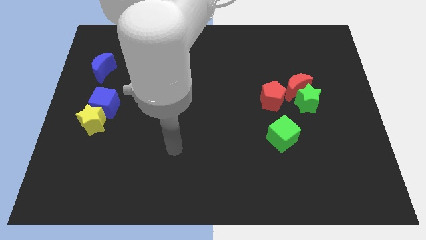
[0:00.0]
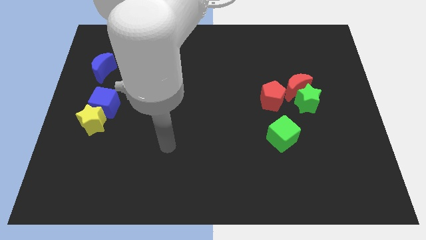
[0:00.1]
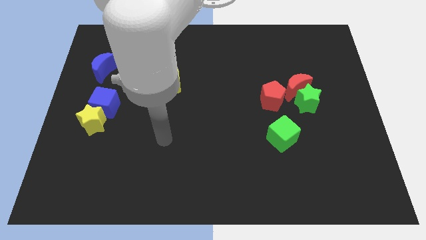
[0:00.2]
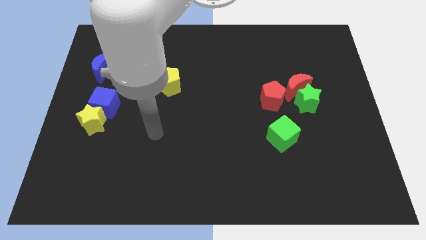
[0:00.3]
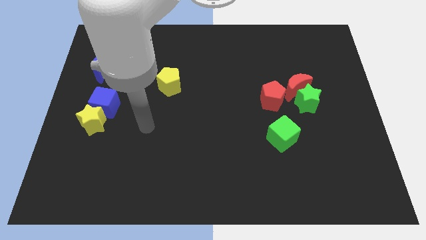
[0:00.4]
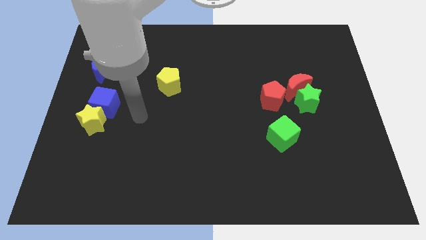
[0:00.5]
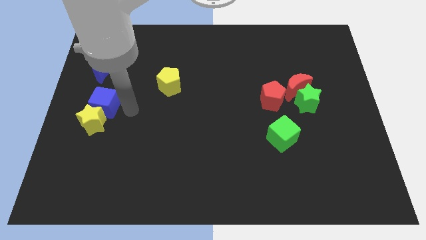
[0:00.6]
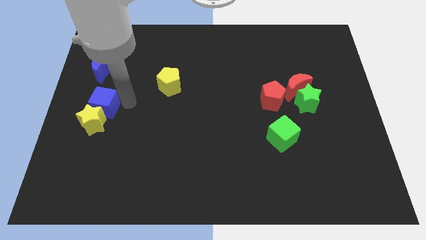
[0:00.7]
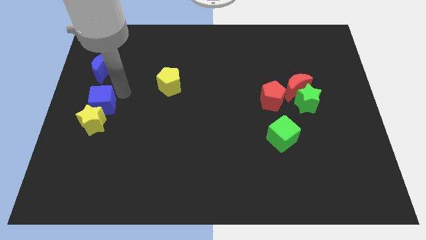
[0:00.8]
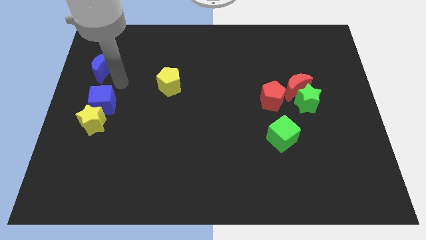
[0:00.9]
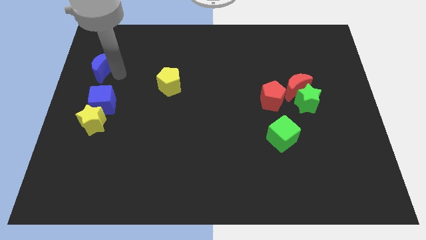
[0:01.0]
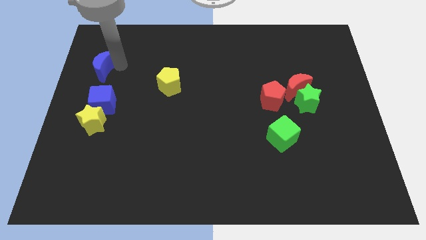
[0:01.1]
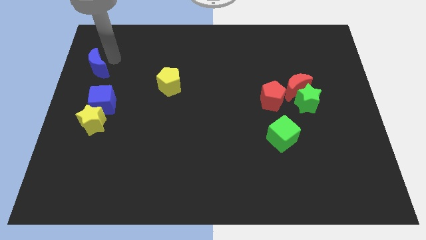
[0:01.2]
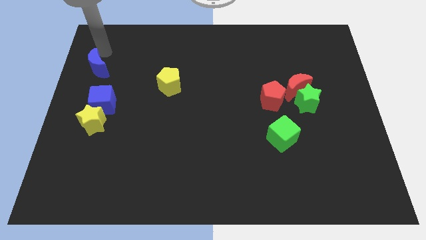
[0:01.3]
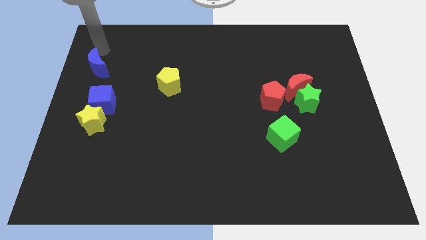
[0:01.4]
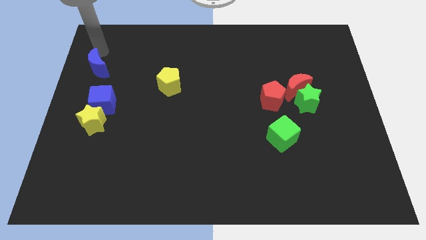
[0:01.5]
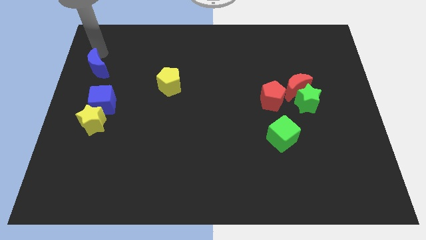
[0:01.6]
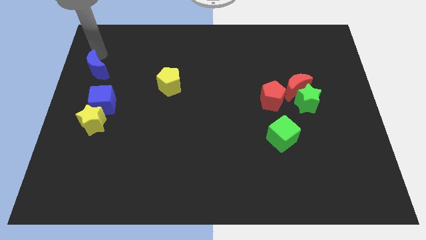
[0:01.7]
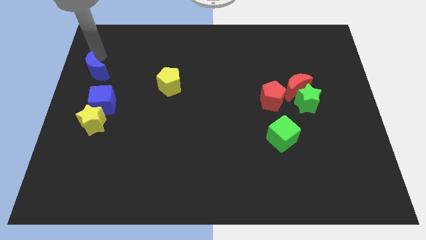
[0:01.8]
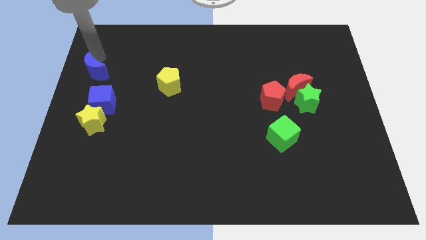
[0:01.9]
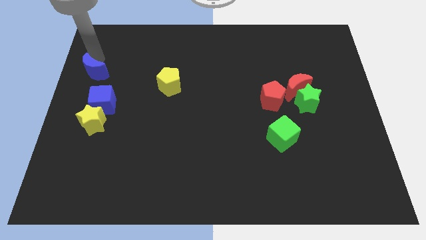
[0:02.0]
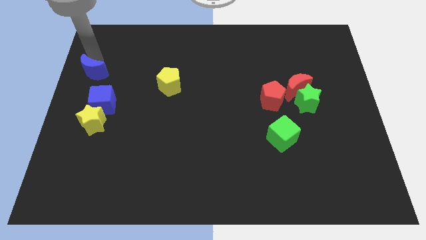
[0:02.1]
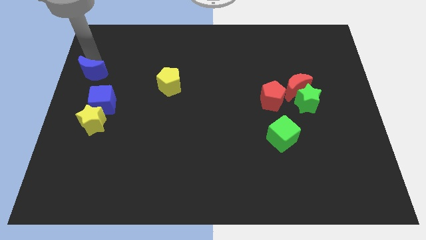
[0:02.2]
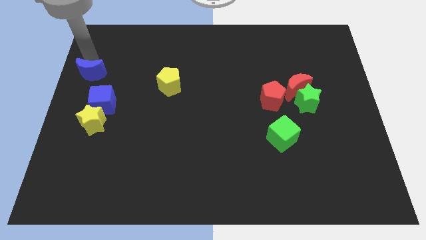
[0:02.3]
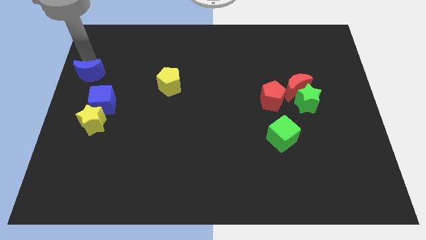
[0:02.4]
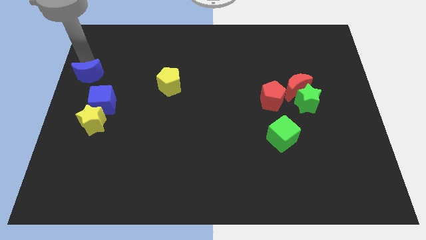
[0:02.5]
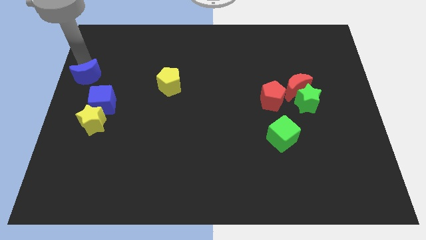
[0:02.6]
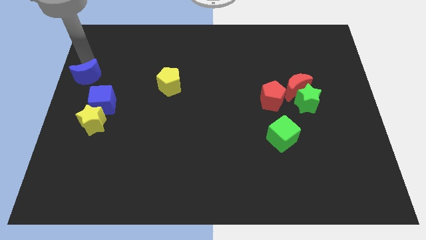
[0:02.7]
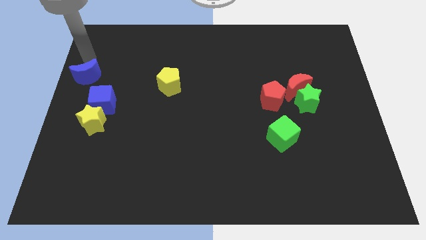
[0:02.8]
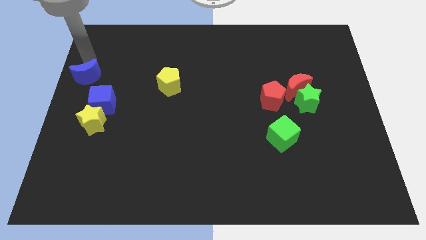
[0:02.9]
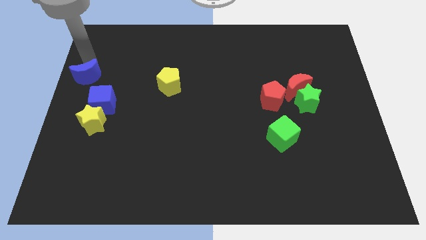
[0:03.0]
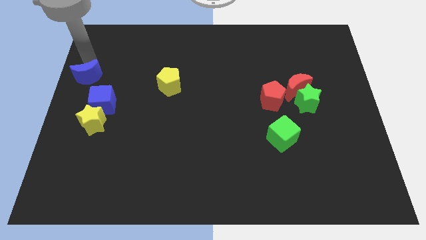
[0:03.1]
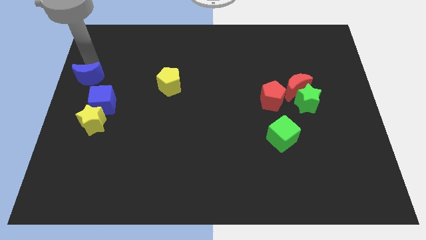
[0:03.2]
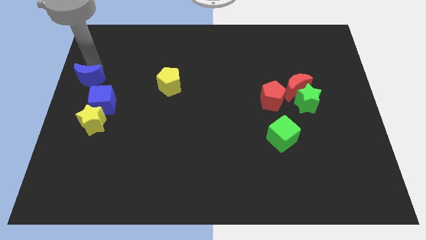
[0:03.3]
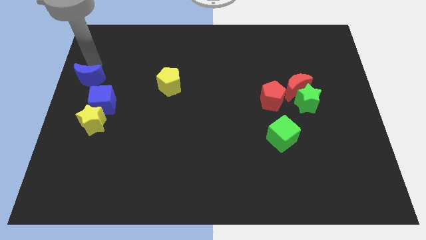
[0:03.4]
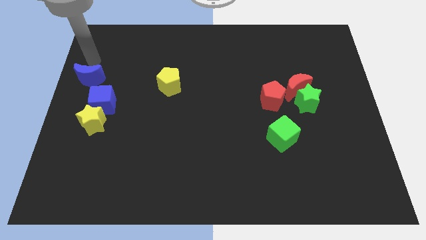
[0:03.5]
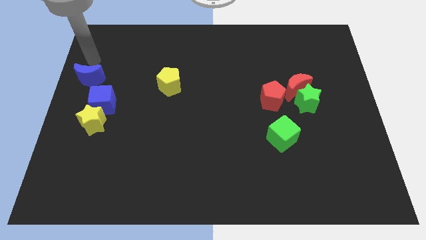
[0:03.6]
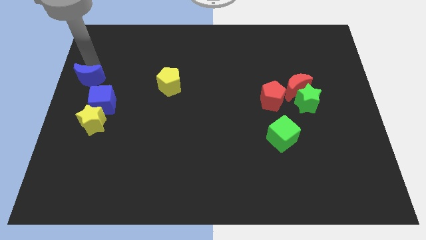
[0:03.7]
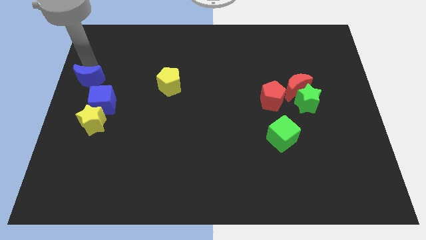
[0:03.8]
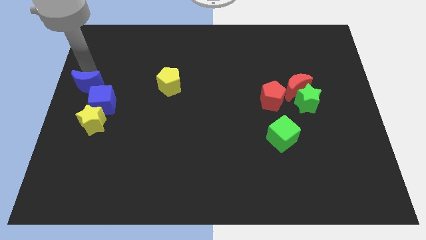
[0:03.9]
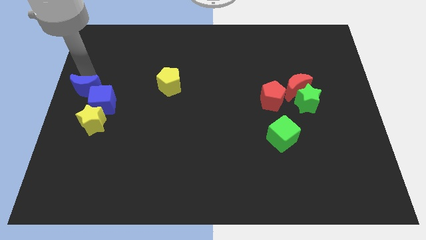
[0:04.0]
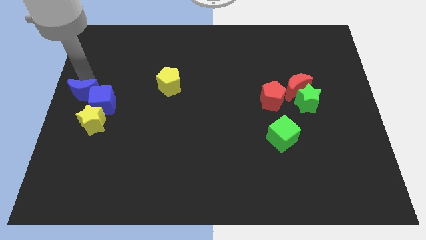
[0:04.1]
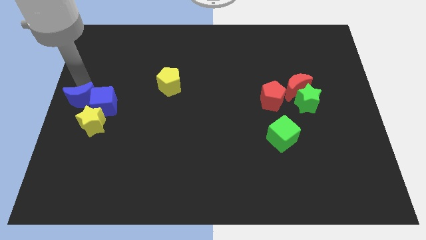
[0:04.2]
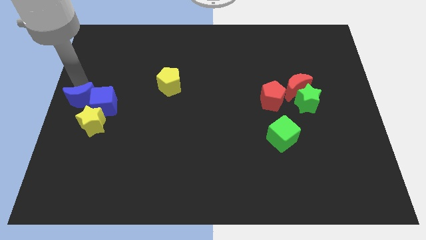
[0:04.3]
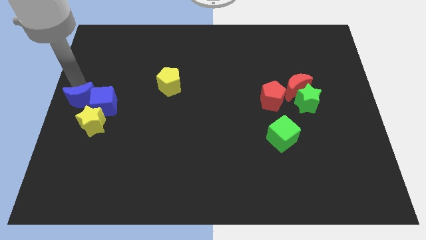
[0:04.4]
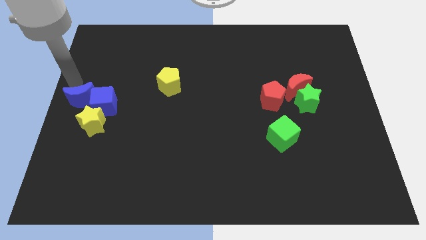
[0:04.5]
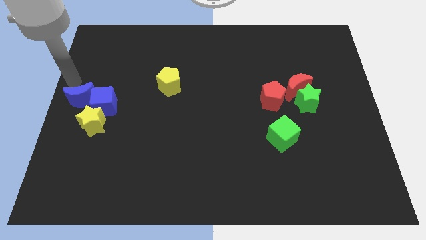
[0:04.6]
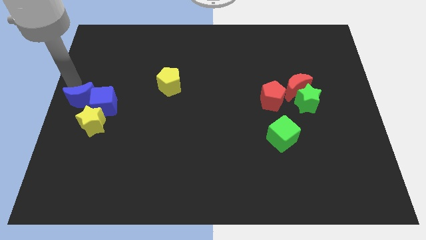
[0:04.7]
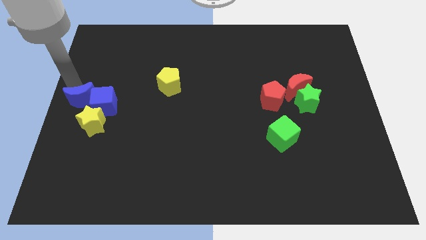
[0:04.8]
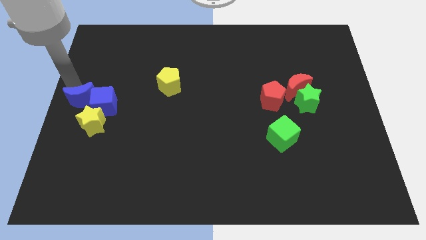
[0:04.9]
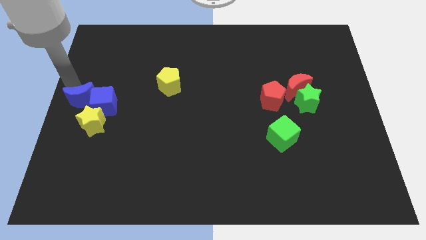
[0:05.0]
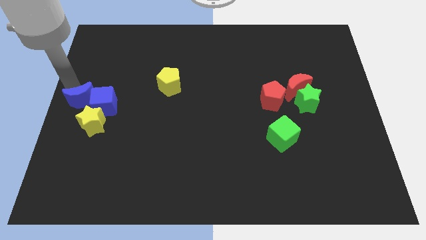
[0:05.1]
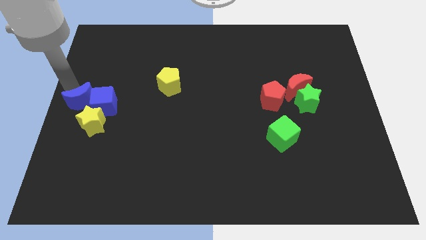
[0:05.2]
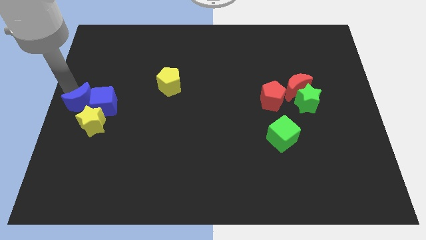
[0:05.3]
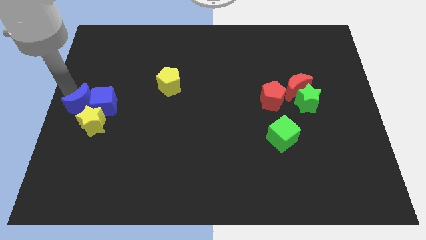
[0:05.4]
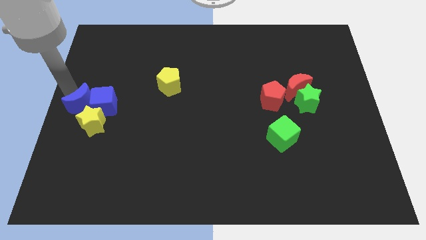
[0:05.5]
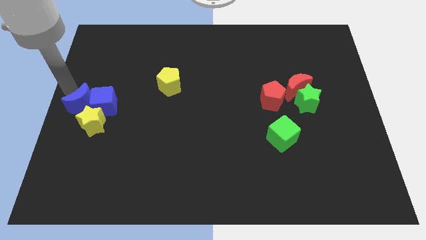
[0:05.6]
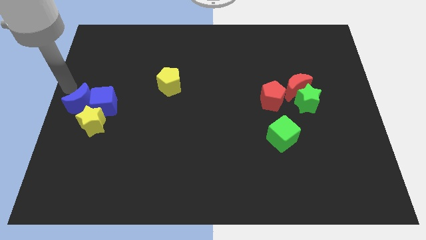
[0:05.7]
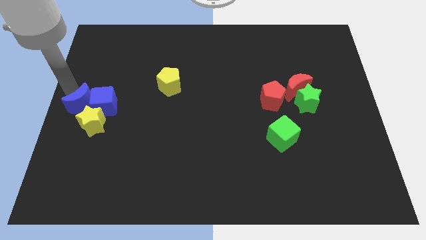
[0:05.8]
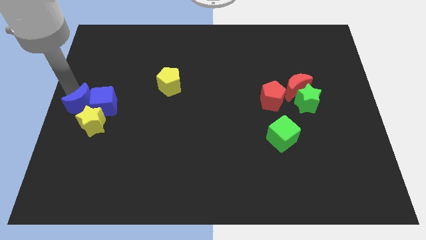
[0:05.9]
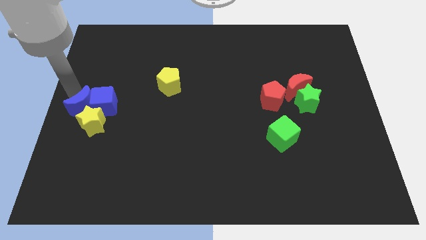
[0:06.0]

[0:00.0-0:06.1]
push the blue moon next to the yellow star

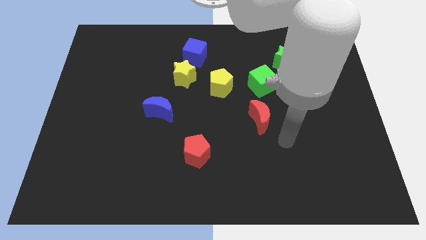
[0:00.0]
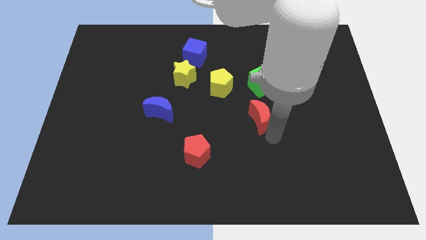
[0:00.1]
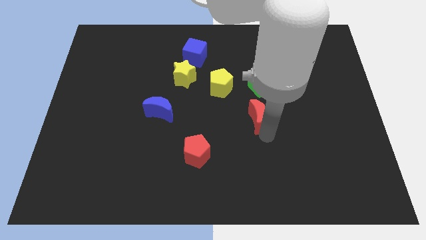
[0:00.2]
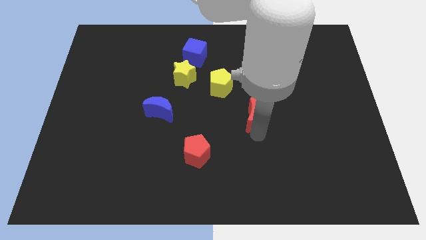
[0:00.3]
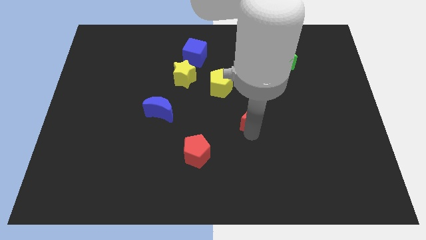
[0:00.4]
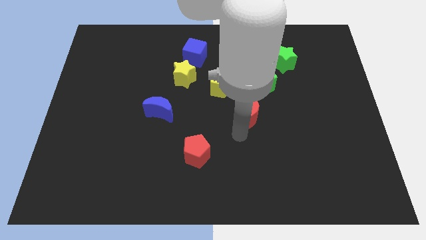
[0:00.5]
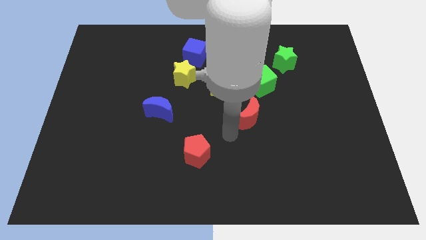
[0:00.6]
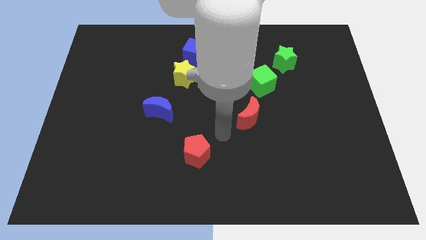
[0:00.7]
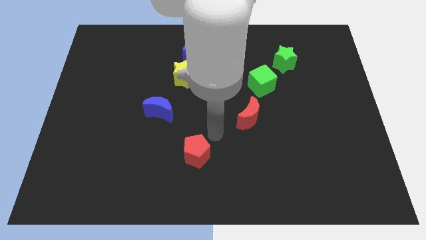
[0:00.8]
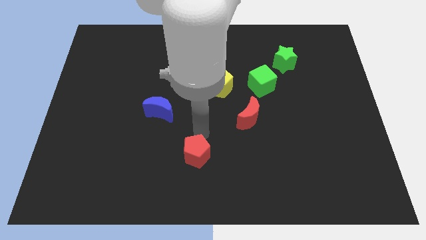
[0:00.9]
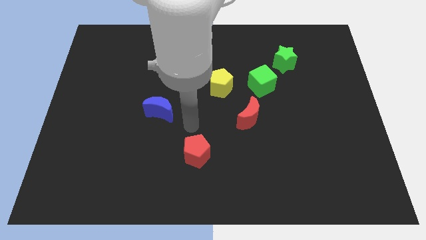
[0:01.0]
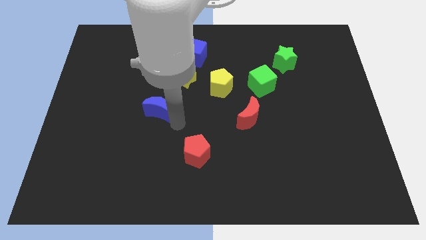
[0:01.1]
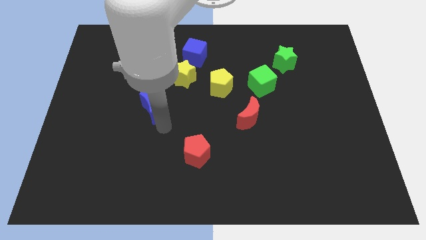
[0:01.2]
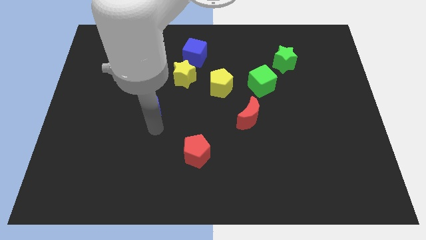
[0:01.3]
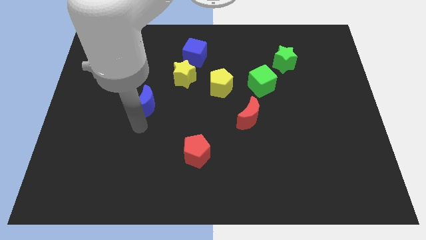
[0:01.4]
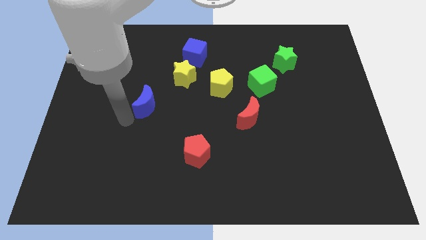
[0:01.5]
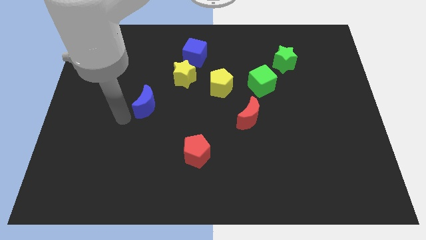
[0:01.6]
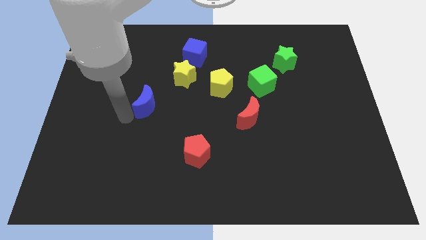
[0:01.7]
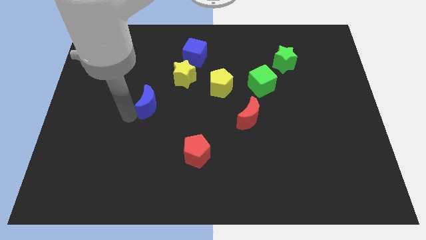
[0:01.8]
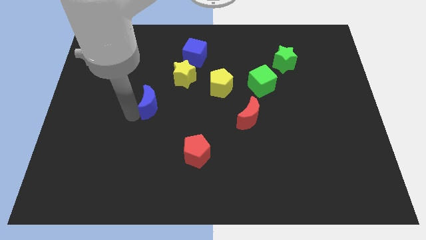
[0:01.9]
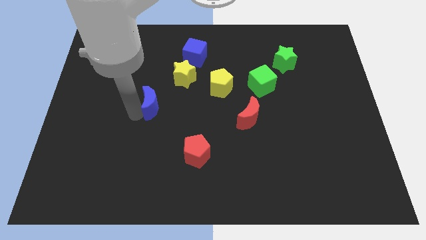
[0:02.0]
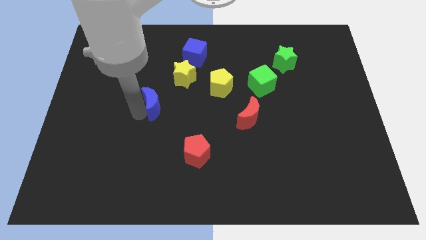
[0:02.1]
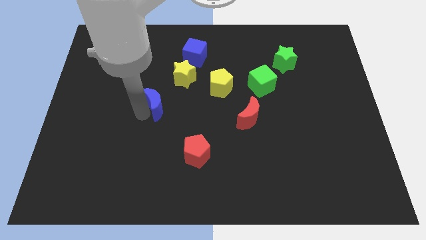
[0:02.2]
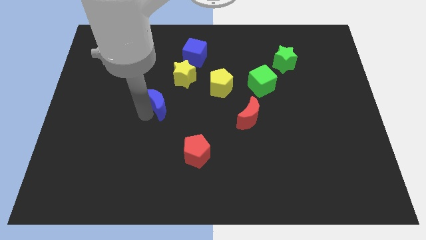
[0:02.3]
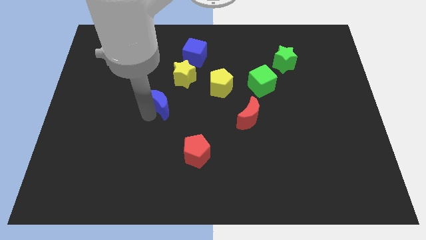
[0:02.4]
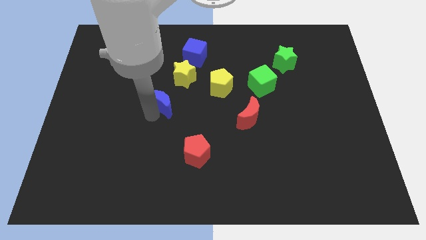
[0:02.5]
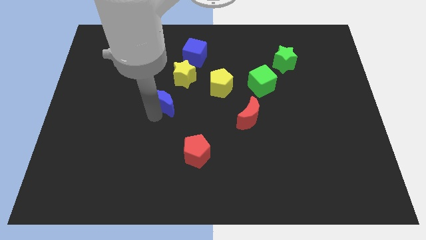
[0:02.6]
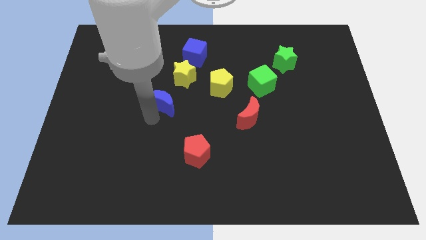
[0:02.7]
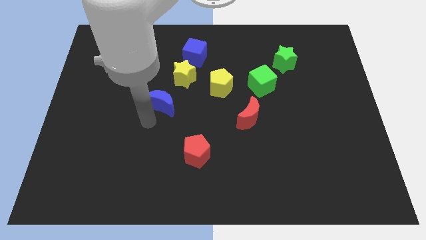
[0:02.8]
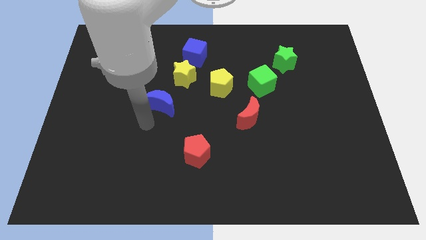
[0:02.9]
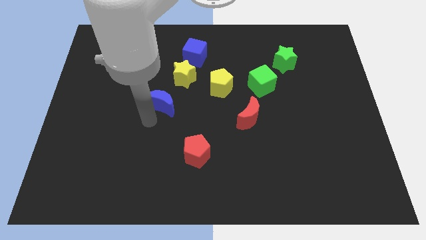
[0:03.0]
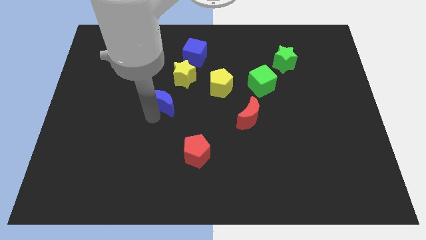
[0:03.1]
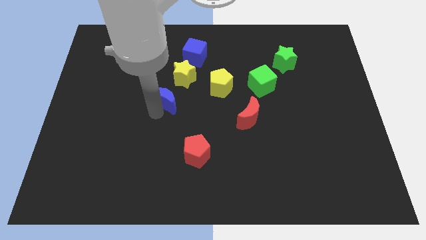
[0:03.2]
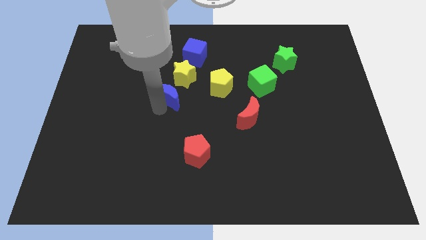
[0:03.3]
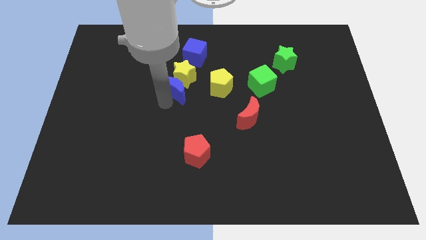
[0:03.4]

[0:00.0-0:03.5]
slide the blue moon towards the yellow star
